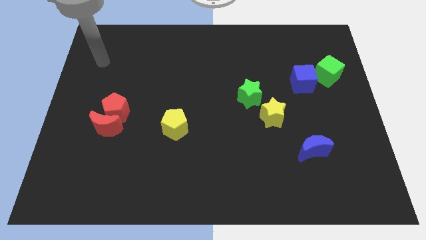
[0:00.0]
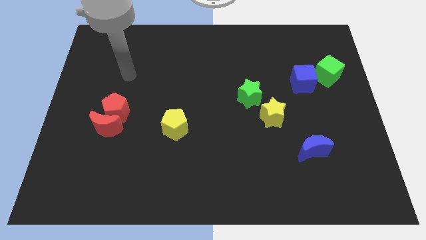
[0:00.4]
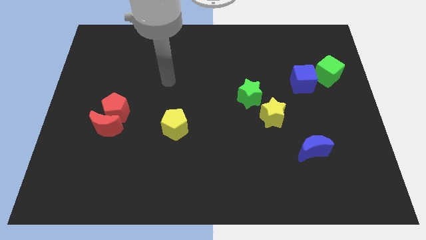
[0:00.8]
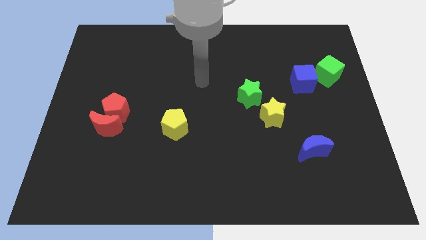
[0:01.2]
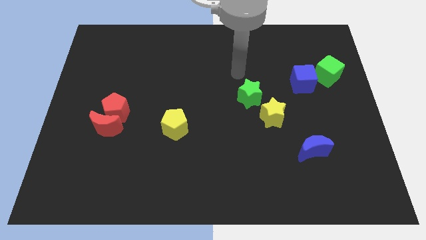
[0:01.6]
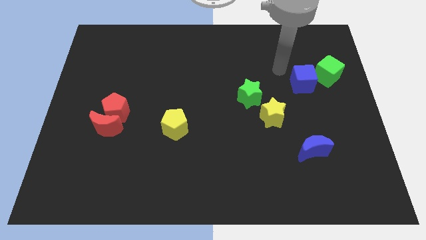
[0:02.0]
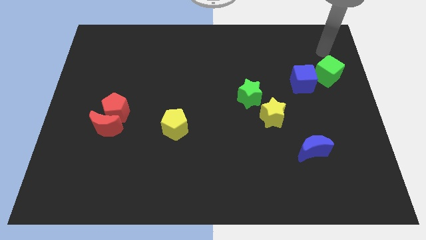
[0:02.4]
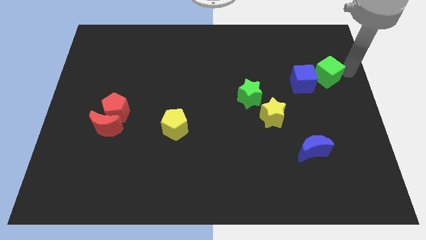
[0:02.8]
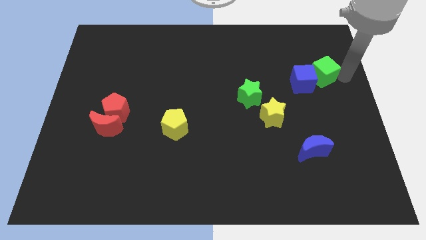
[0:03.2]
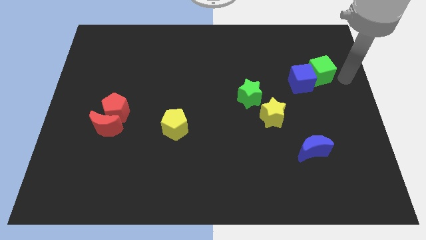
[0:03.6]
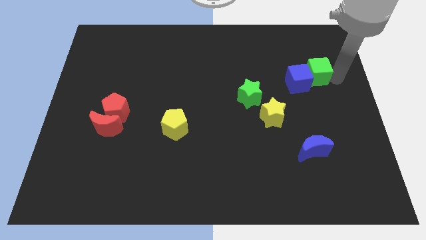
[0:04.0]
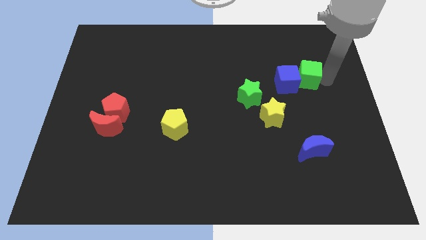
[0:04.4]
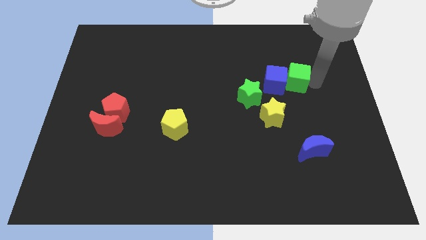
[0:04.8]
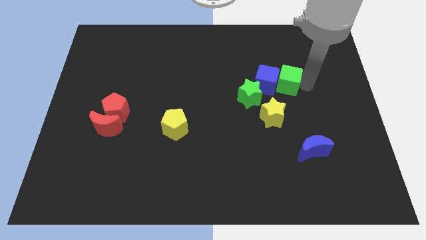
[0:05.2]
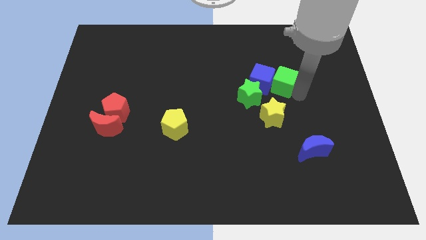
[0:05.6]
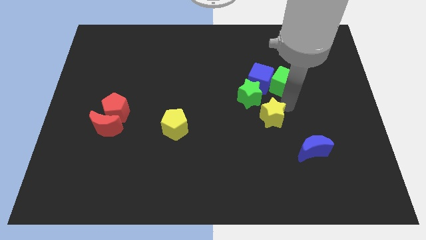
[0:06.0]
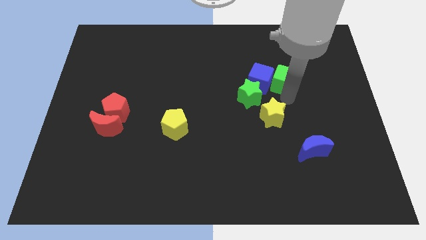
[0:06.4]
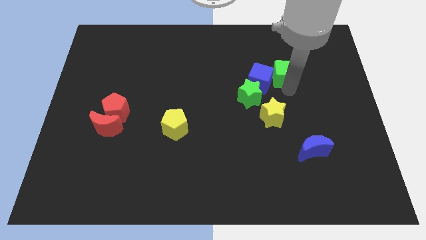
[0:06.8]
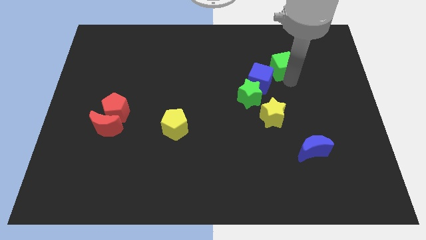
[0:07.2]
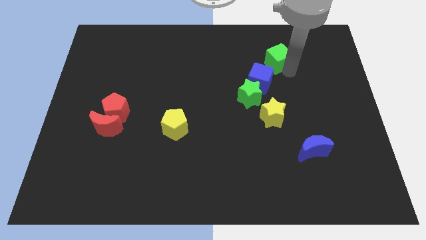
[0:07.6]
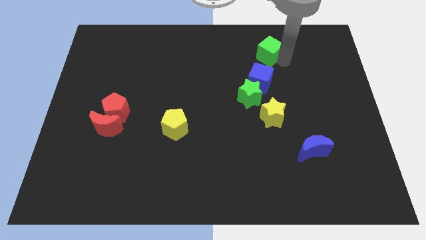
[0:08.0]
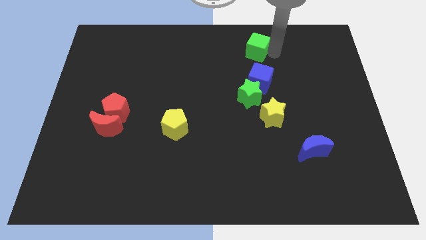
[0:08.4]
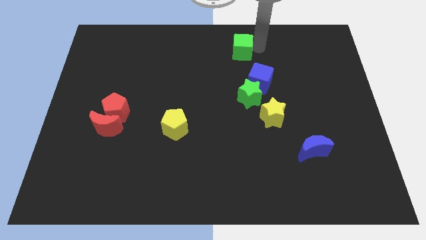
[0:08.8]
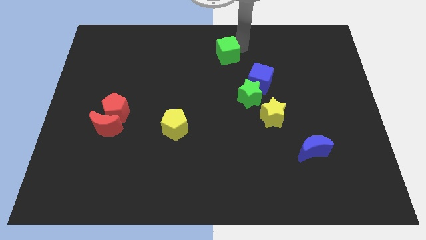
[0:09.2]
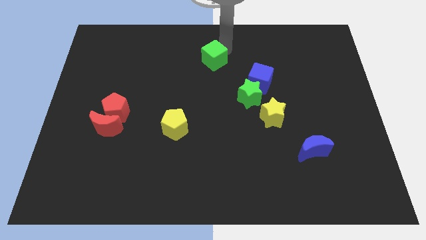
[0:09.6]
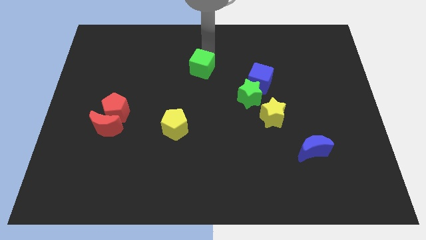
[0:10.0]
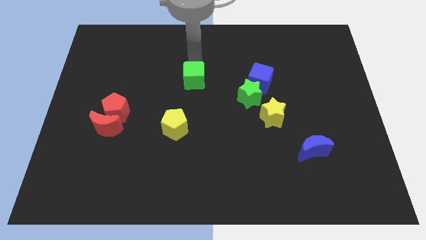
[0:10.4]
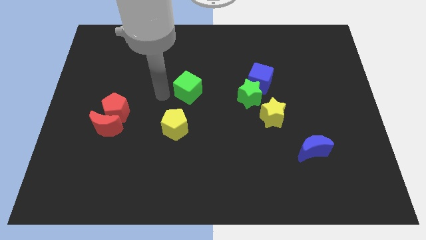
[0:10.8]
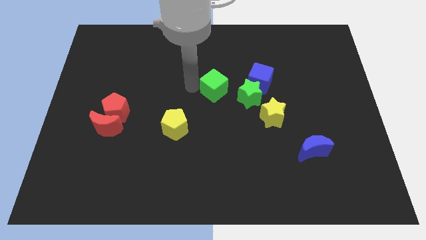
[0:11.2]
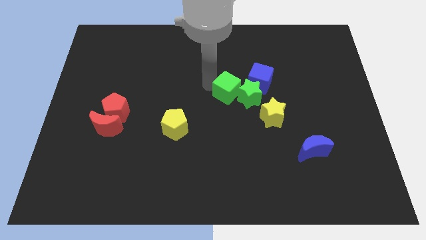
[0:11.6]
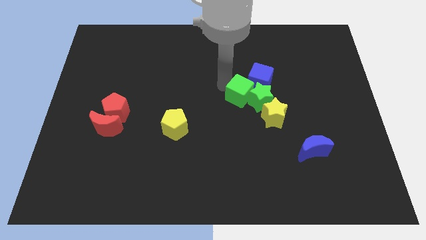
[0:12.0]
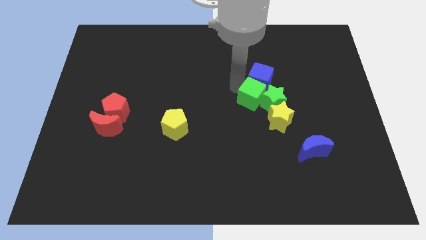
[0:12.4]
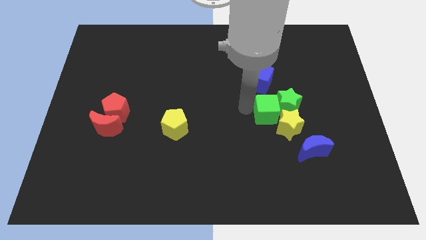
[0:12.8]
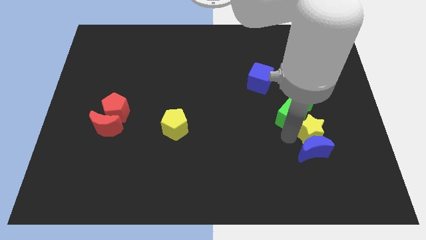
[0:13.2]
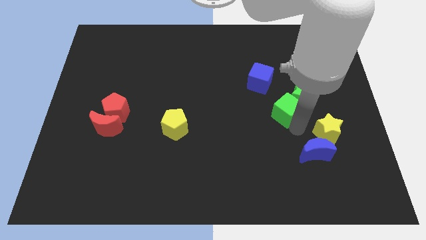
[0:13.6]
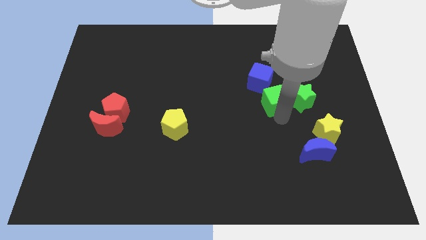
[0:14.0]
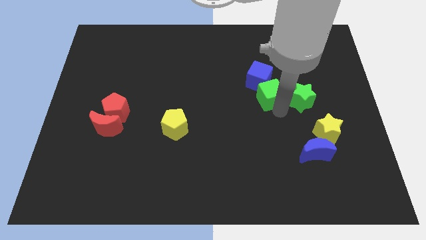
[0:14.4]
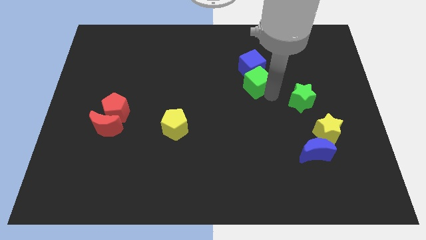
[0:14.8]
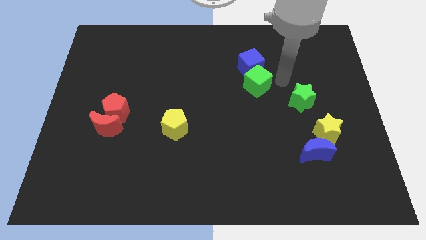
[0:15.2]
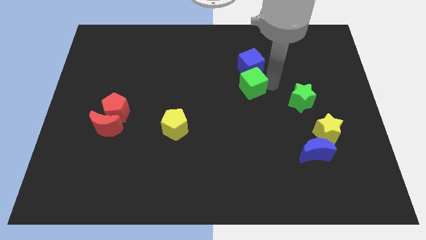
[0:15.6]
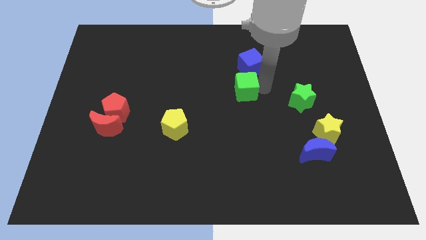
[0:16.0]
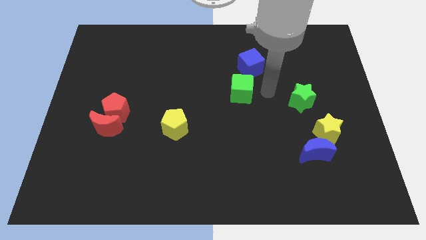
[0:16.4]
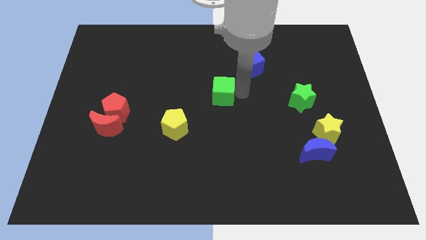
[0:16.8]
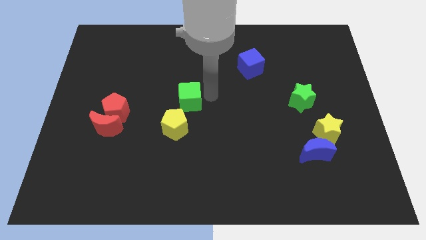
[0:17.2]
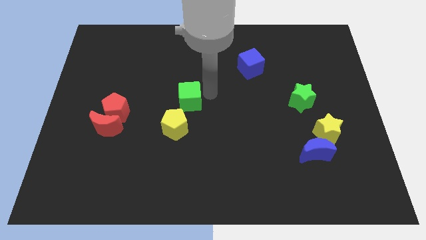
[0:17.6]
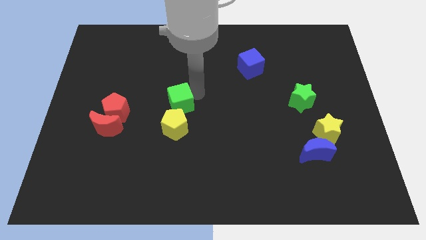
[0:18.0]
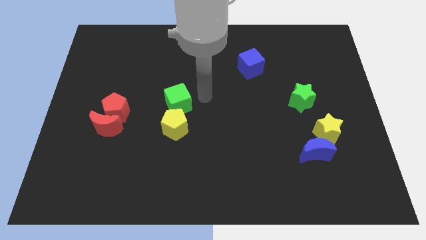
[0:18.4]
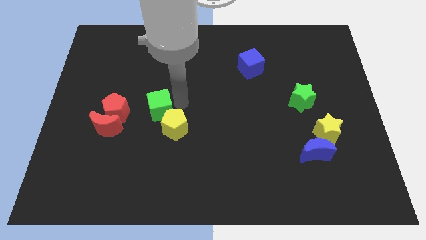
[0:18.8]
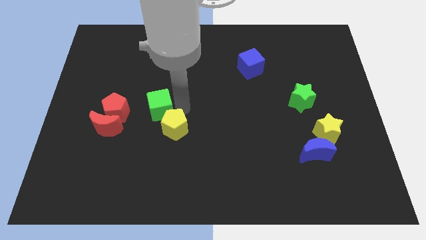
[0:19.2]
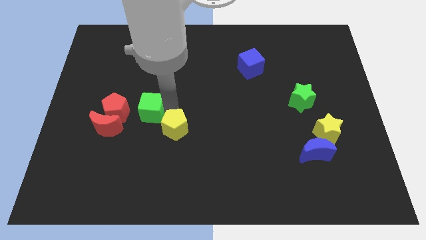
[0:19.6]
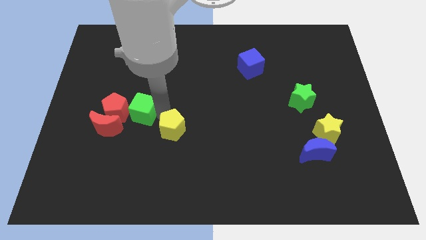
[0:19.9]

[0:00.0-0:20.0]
slide the green cube towards the red pentagon

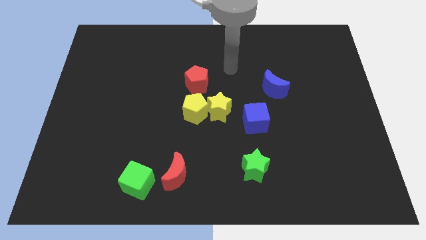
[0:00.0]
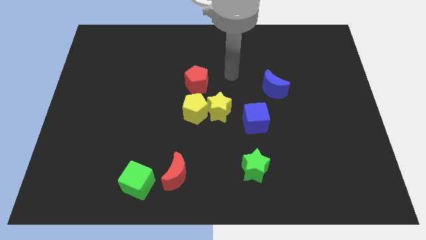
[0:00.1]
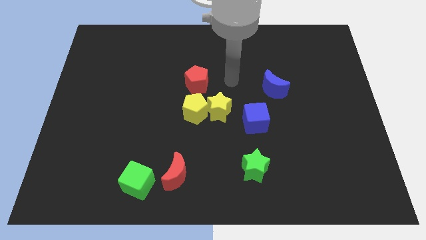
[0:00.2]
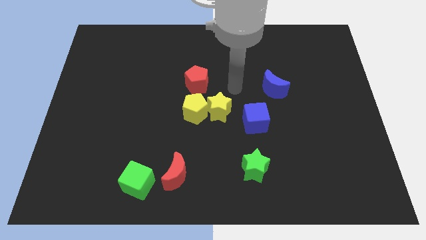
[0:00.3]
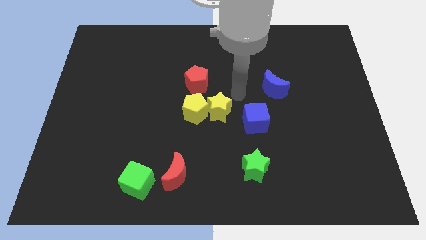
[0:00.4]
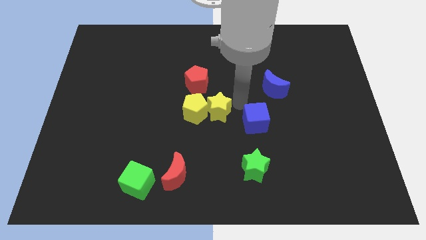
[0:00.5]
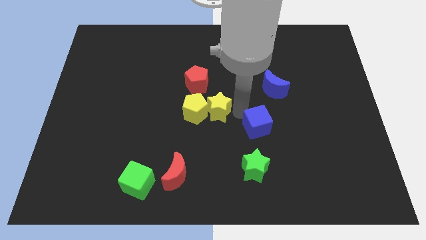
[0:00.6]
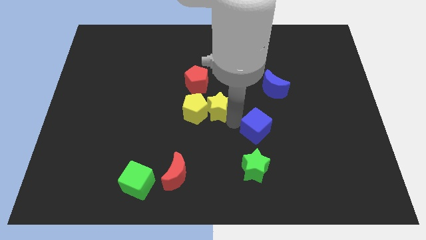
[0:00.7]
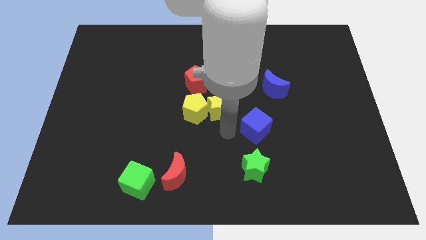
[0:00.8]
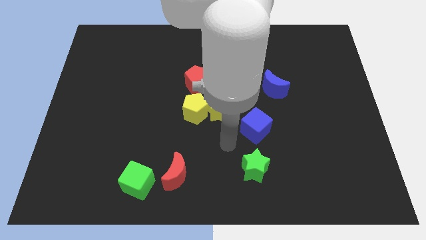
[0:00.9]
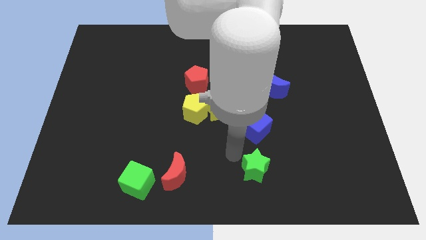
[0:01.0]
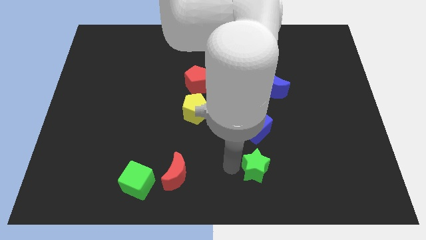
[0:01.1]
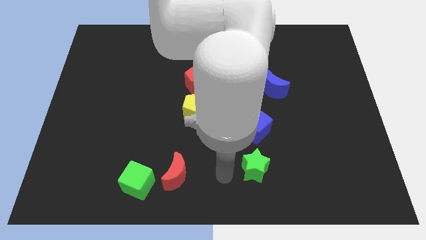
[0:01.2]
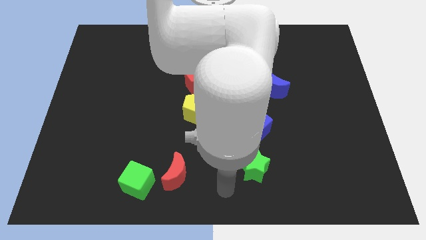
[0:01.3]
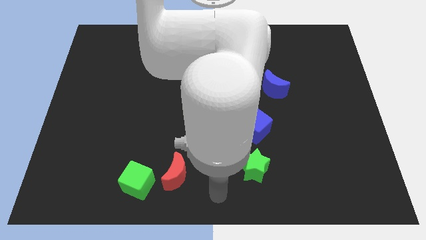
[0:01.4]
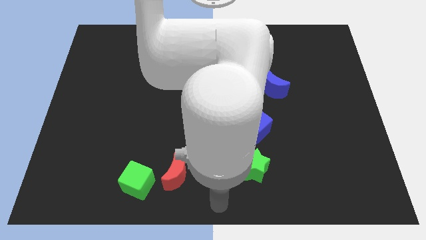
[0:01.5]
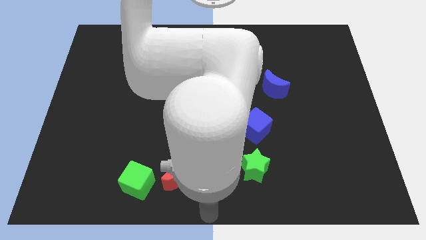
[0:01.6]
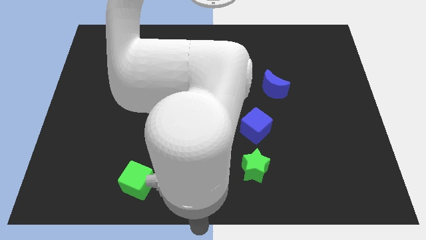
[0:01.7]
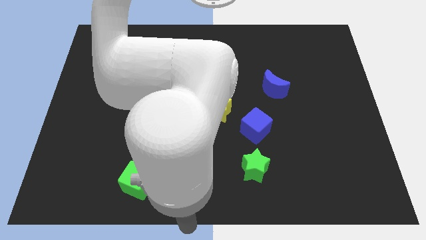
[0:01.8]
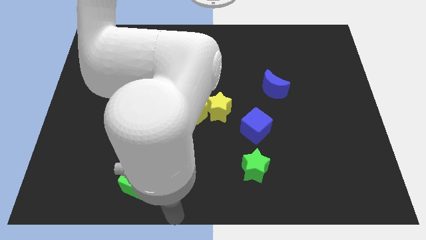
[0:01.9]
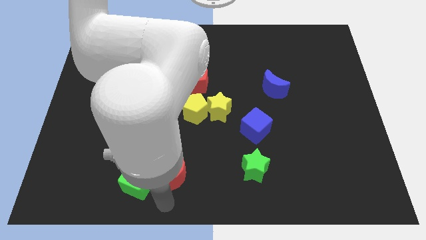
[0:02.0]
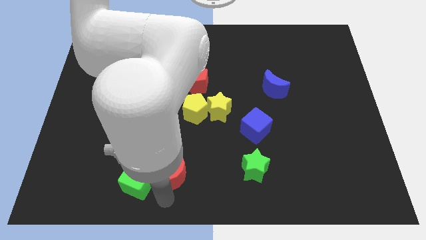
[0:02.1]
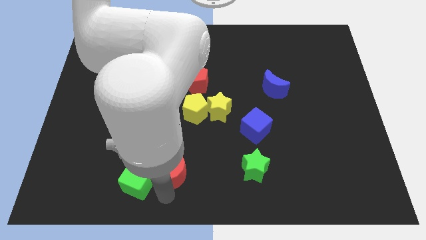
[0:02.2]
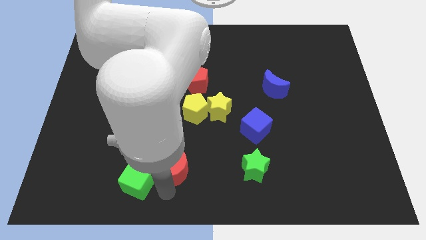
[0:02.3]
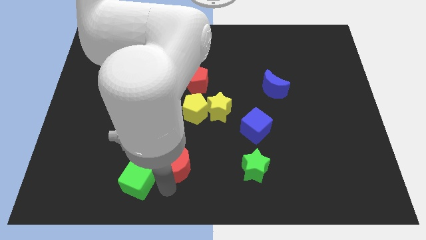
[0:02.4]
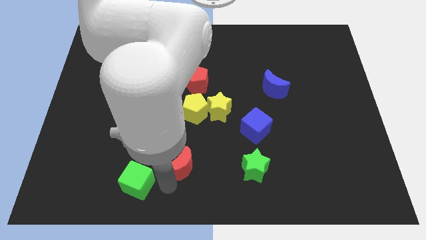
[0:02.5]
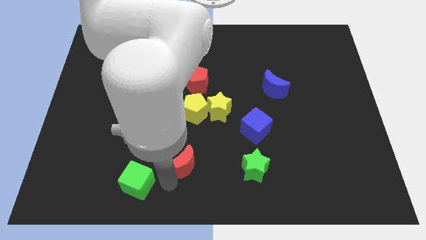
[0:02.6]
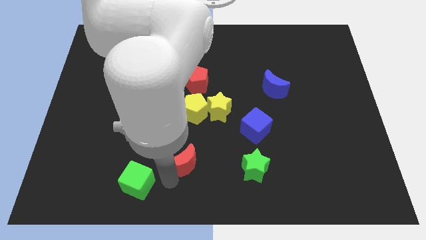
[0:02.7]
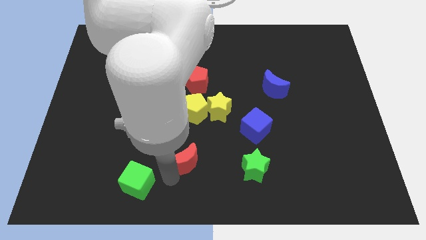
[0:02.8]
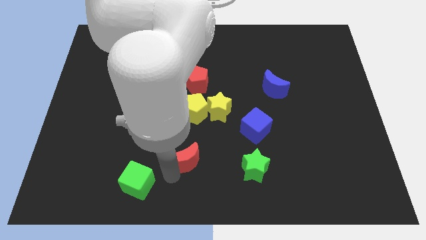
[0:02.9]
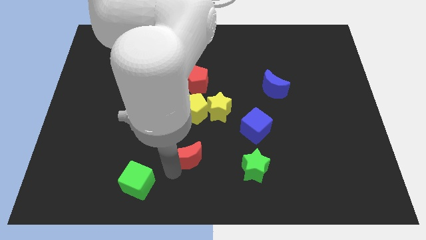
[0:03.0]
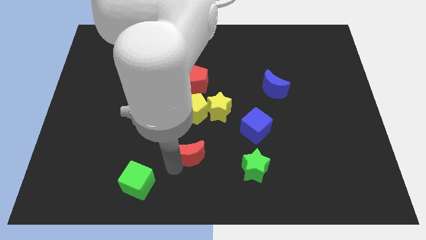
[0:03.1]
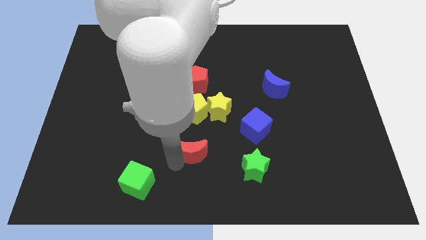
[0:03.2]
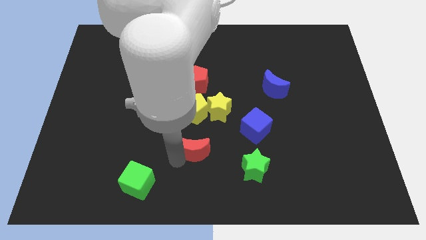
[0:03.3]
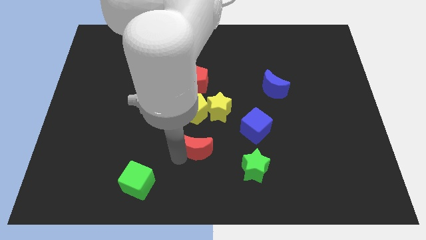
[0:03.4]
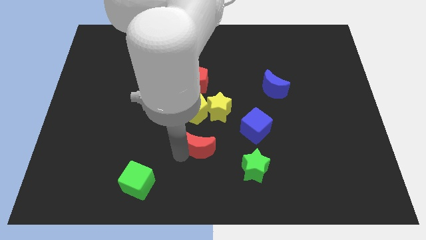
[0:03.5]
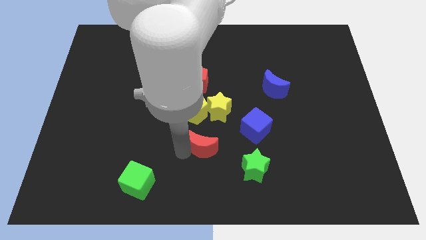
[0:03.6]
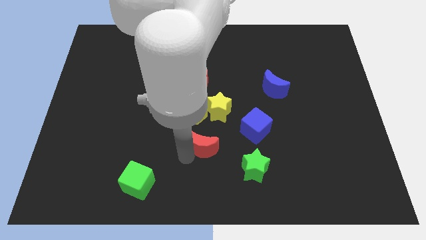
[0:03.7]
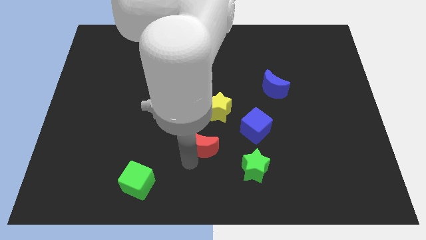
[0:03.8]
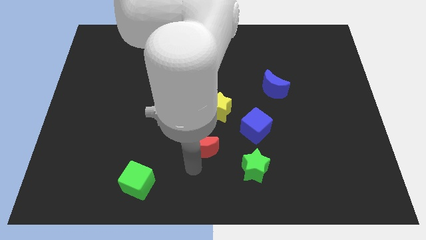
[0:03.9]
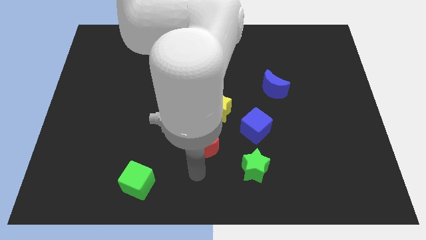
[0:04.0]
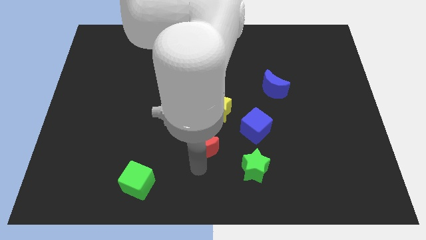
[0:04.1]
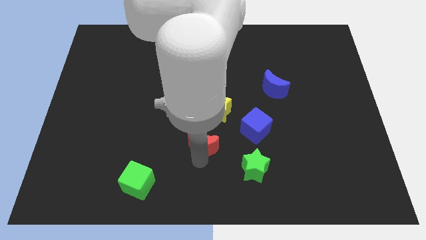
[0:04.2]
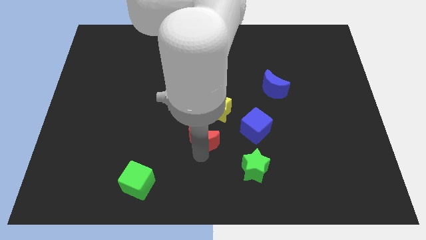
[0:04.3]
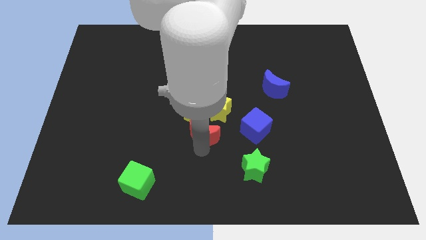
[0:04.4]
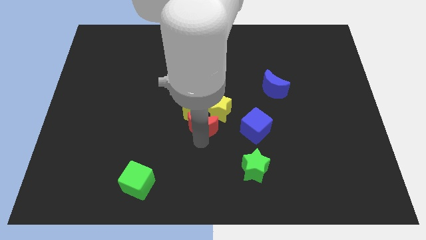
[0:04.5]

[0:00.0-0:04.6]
slide the red moon to the yellow star
